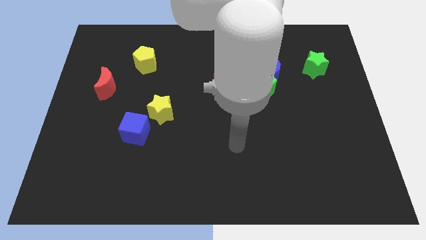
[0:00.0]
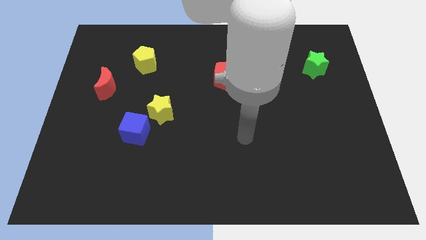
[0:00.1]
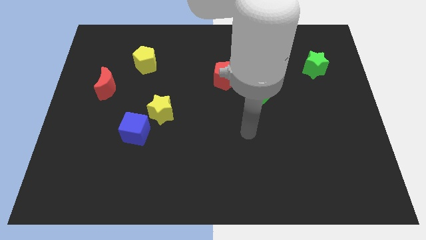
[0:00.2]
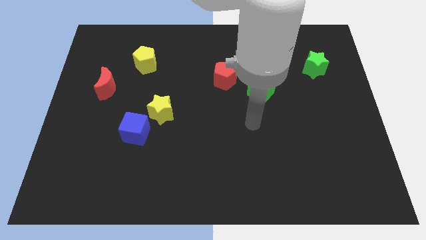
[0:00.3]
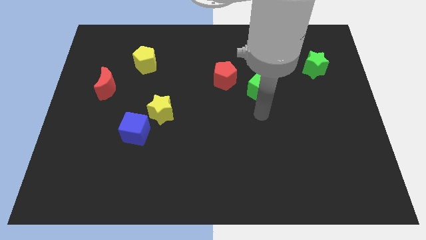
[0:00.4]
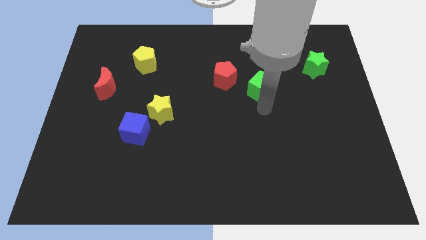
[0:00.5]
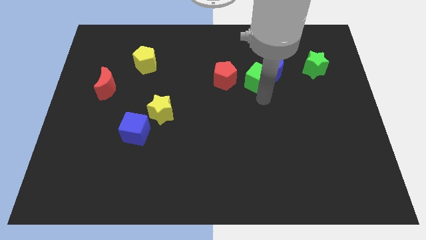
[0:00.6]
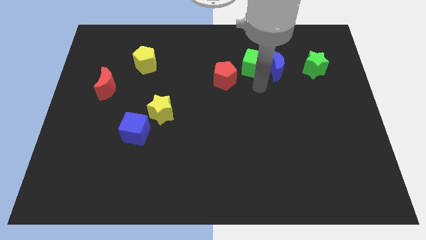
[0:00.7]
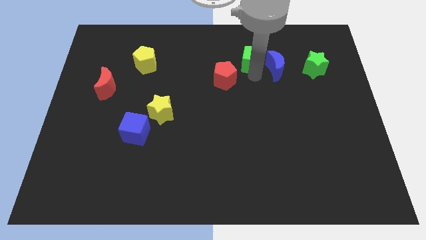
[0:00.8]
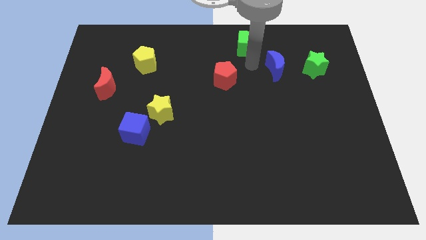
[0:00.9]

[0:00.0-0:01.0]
separate the blue moon from the green cube

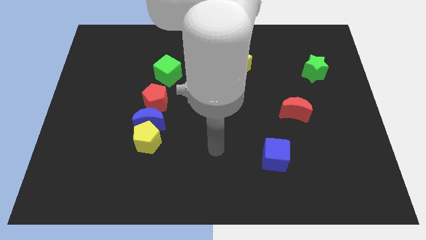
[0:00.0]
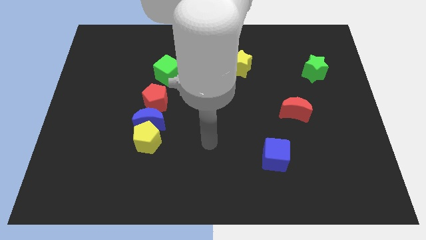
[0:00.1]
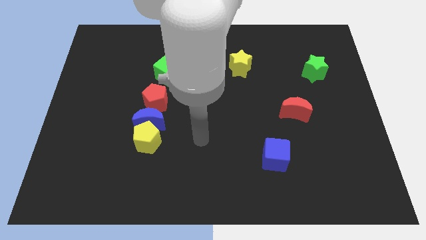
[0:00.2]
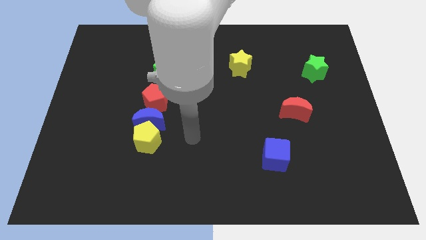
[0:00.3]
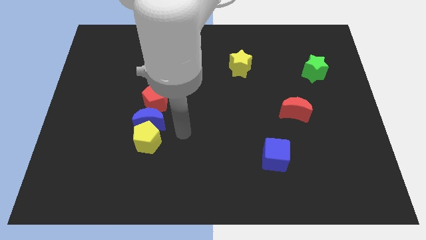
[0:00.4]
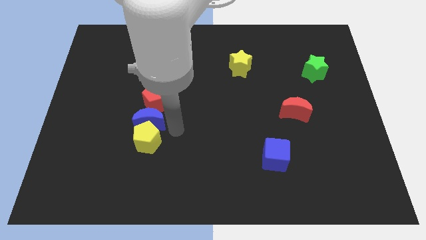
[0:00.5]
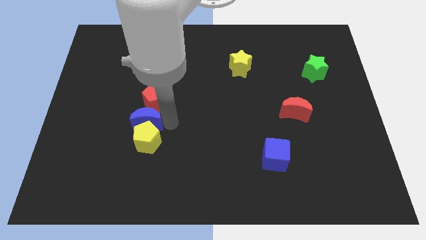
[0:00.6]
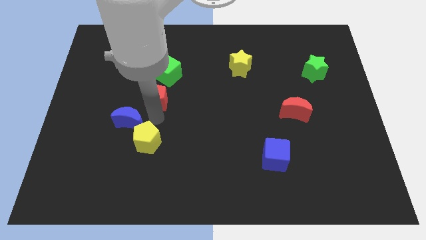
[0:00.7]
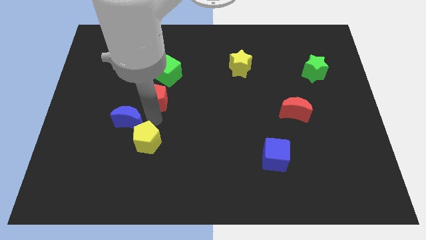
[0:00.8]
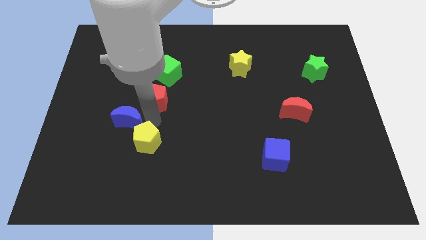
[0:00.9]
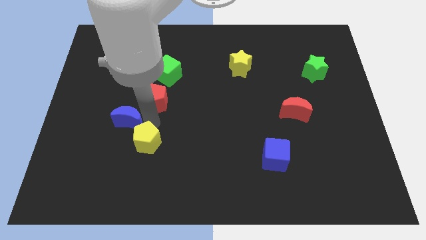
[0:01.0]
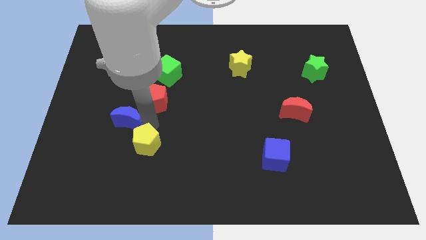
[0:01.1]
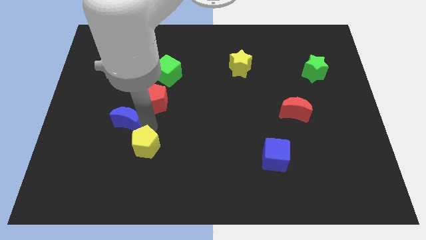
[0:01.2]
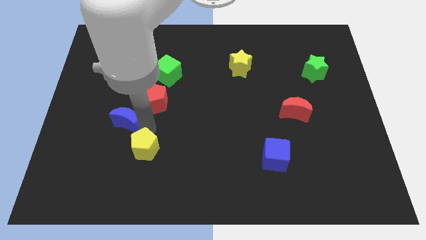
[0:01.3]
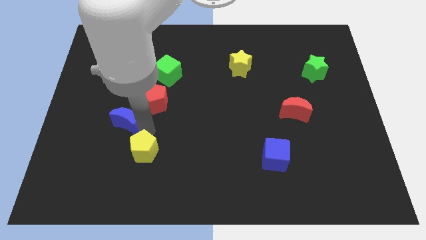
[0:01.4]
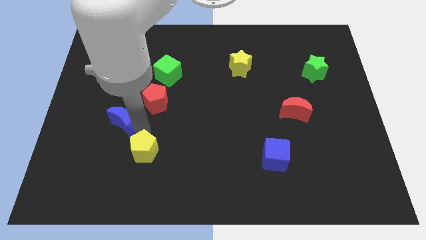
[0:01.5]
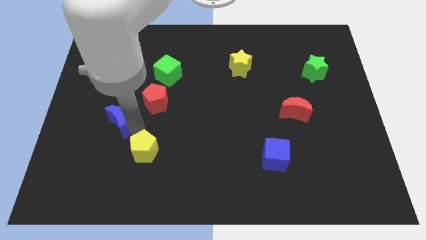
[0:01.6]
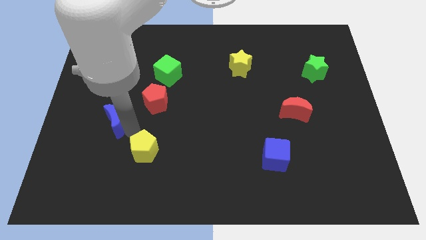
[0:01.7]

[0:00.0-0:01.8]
separate the yellow pentagon from the blue moon

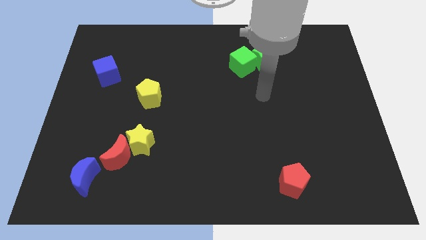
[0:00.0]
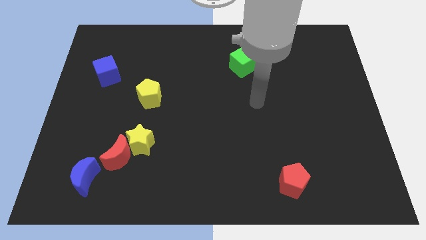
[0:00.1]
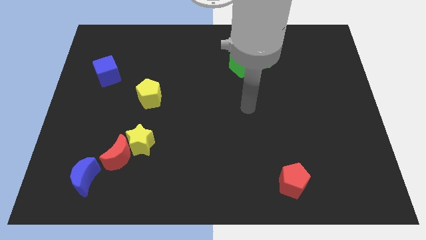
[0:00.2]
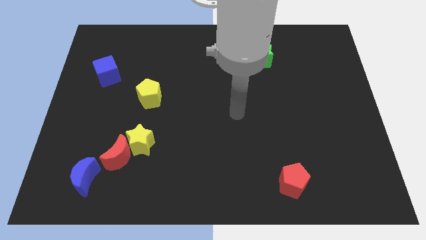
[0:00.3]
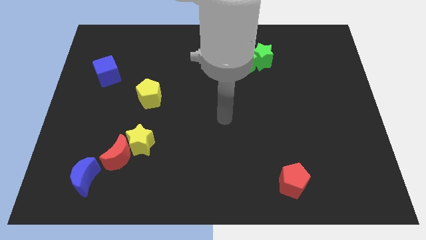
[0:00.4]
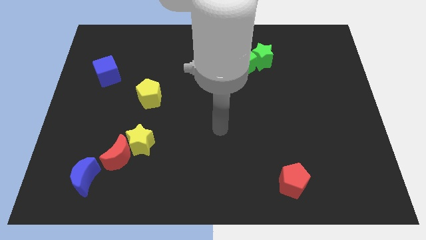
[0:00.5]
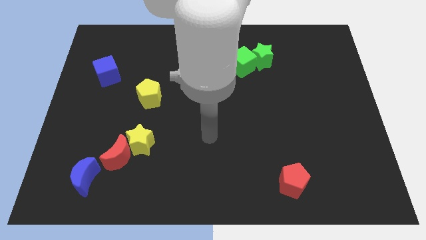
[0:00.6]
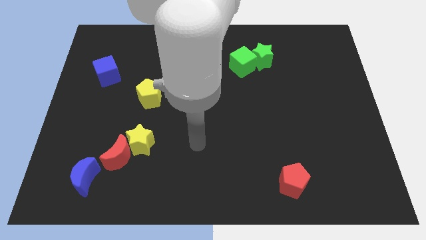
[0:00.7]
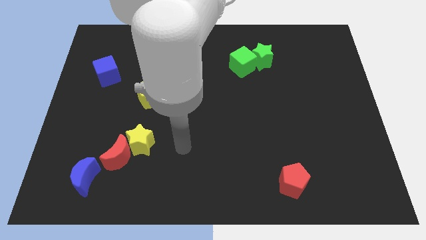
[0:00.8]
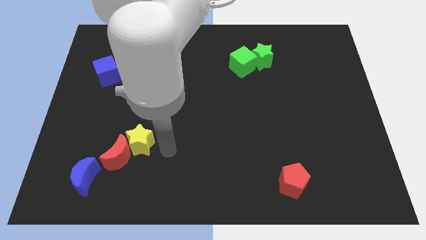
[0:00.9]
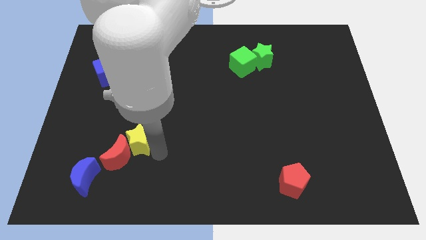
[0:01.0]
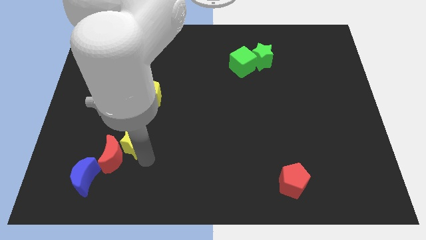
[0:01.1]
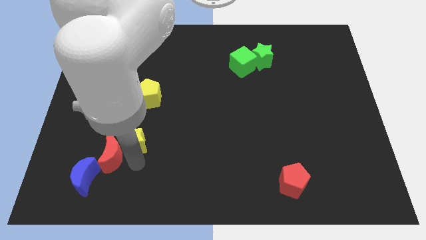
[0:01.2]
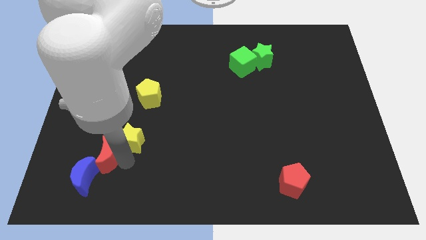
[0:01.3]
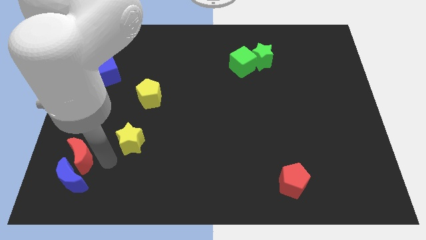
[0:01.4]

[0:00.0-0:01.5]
move the yellow star away from the red moon

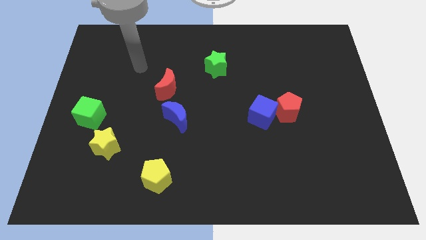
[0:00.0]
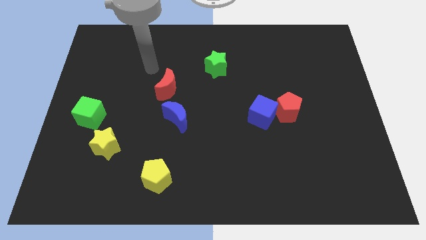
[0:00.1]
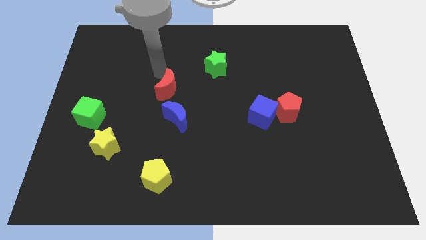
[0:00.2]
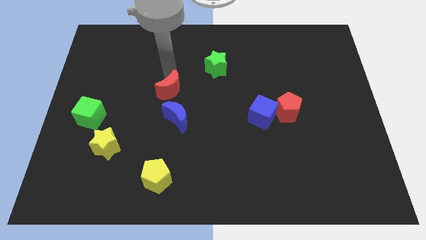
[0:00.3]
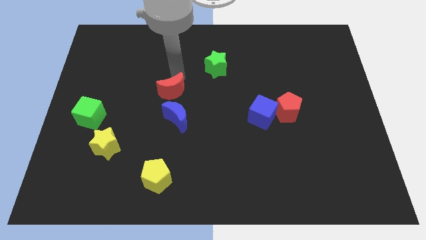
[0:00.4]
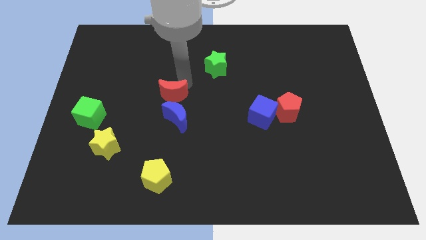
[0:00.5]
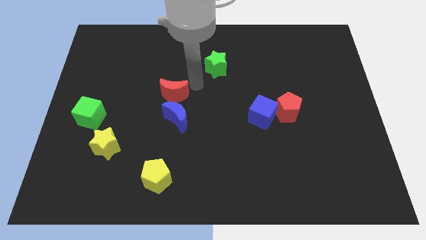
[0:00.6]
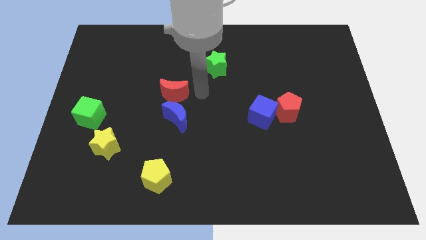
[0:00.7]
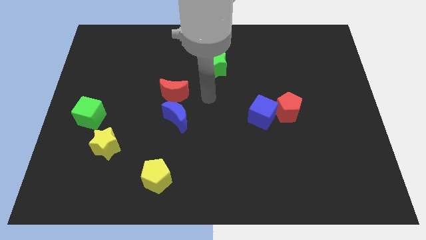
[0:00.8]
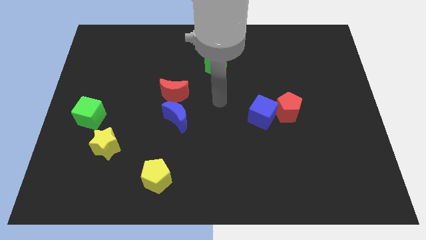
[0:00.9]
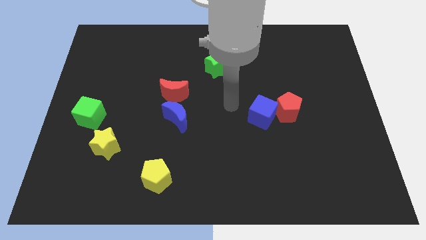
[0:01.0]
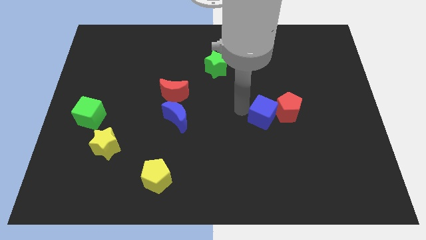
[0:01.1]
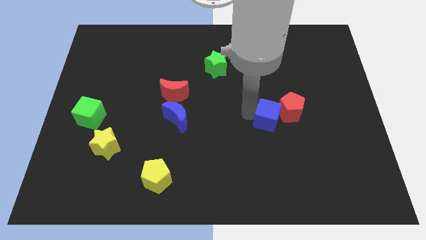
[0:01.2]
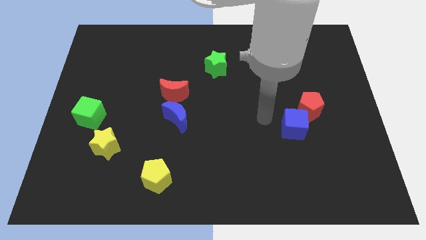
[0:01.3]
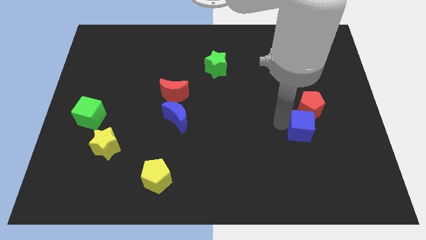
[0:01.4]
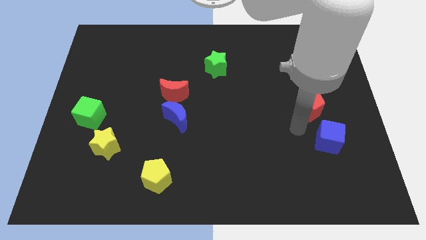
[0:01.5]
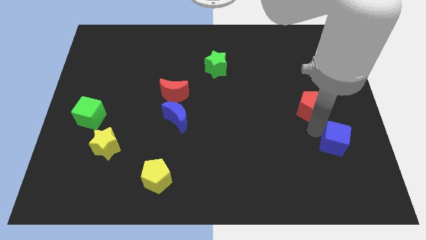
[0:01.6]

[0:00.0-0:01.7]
separate the red pentagon from the blue cube

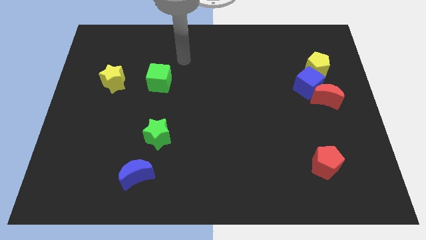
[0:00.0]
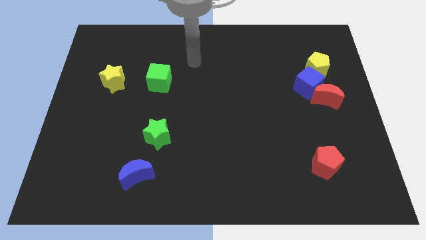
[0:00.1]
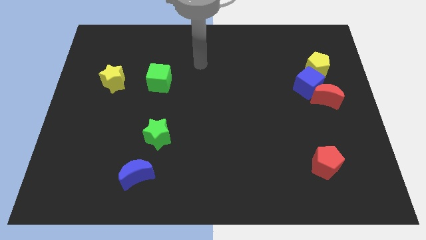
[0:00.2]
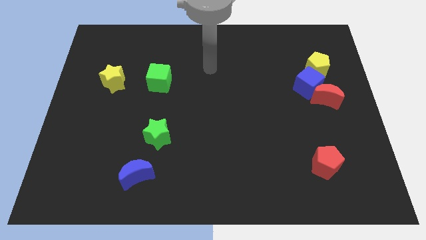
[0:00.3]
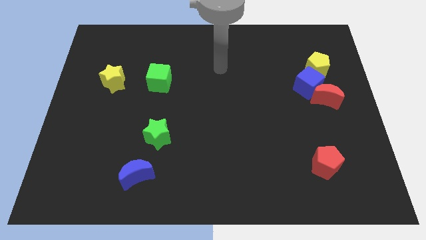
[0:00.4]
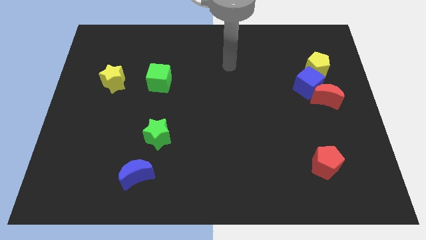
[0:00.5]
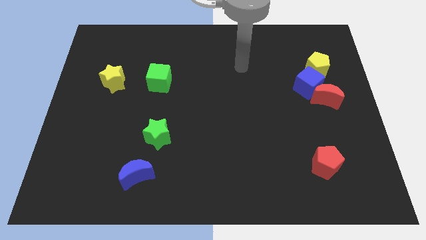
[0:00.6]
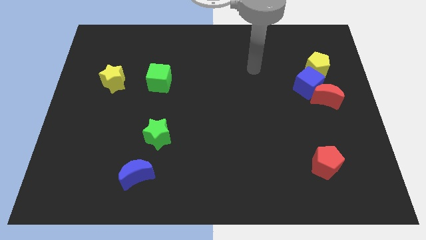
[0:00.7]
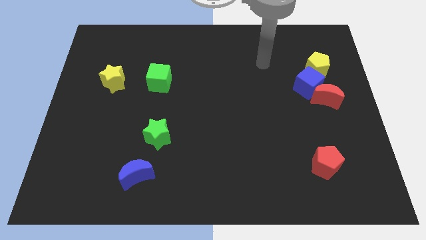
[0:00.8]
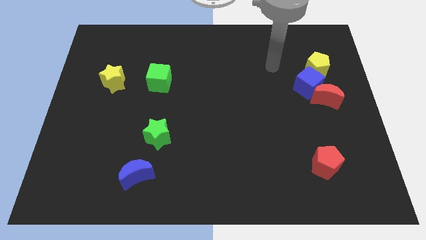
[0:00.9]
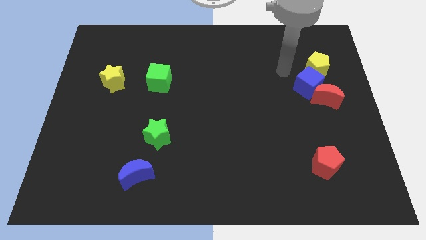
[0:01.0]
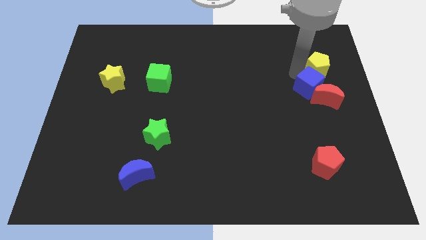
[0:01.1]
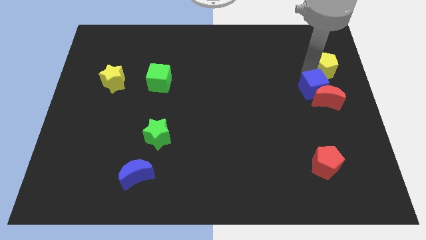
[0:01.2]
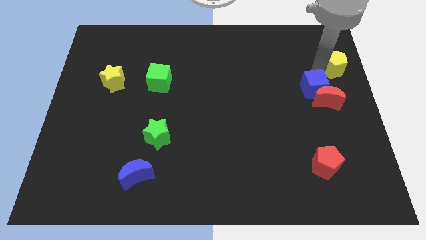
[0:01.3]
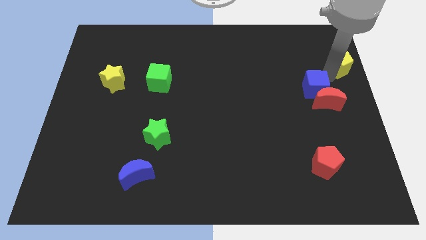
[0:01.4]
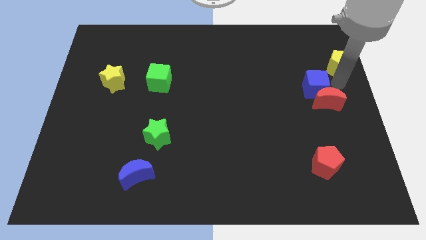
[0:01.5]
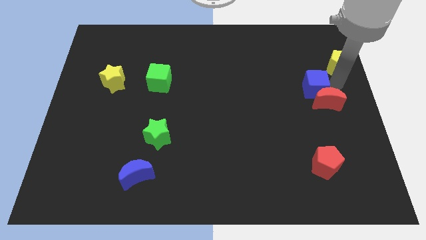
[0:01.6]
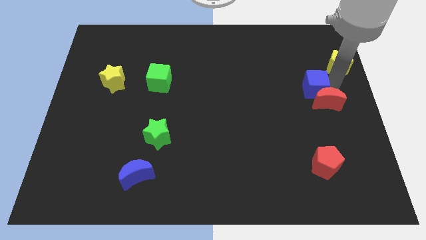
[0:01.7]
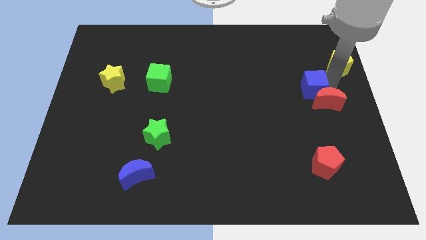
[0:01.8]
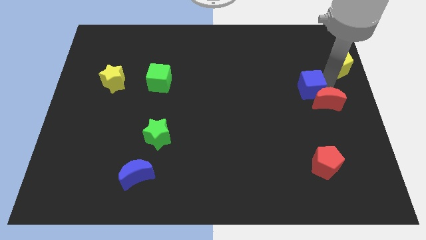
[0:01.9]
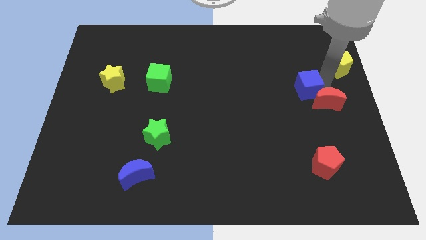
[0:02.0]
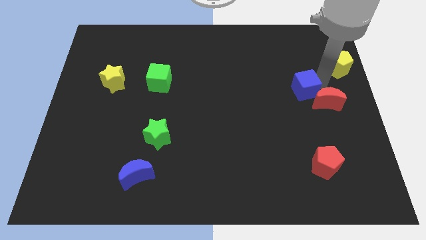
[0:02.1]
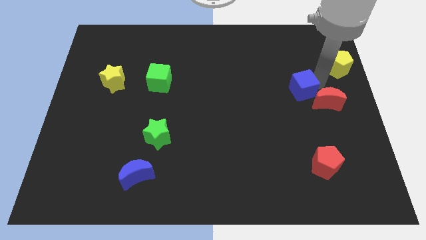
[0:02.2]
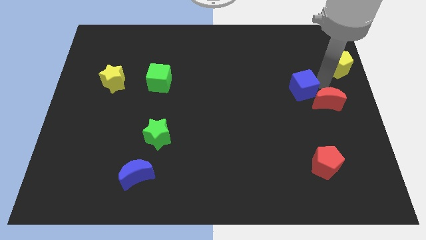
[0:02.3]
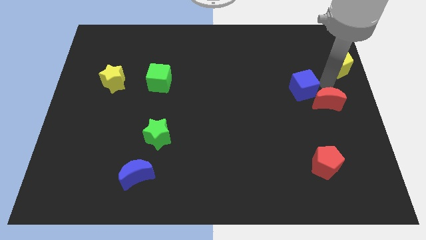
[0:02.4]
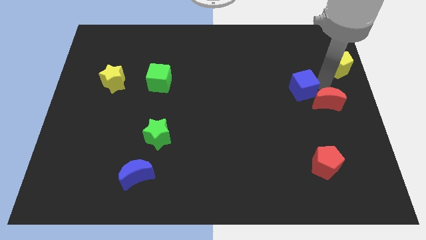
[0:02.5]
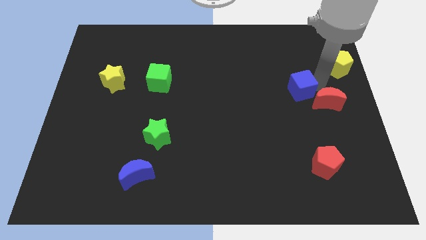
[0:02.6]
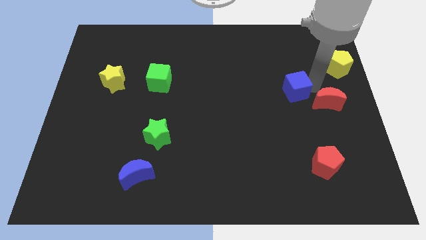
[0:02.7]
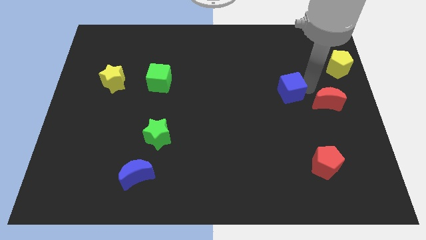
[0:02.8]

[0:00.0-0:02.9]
move the blue cube away from the red moon and yellow pentagon

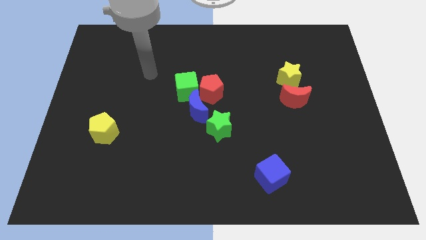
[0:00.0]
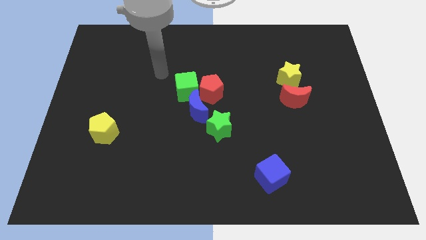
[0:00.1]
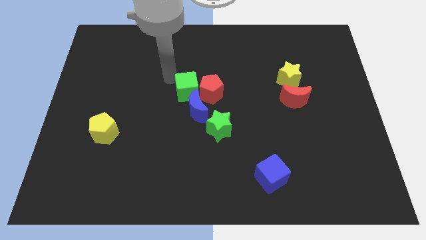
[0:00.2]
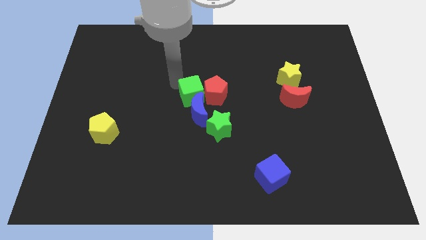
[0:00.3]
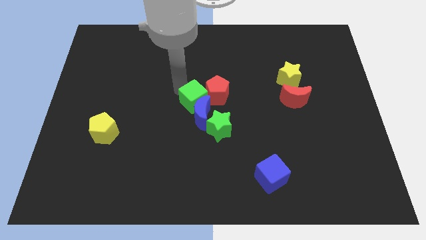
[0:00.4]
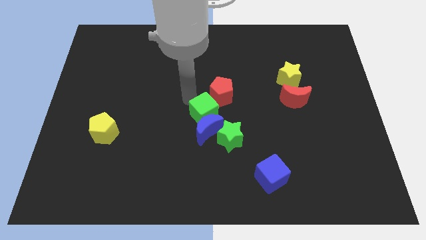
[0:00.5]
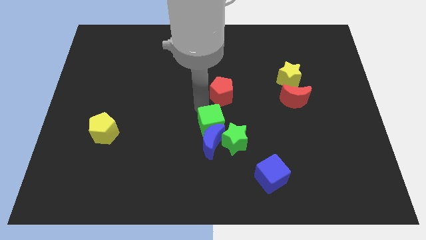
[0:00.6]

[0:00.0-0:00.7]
pull the red pentagon apart from the green cube and blue moon
